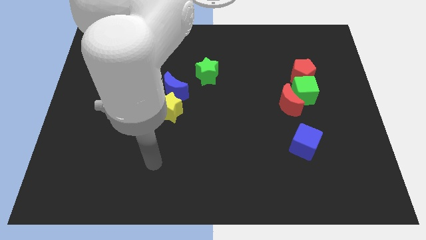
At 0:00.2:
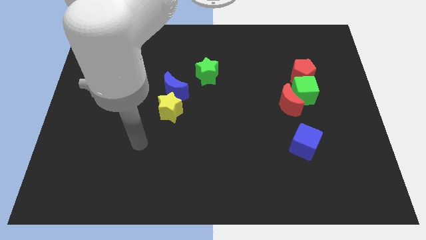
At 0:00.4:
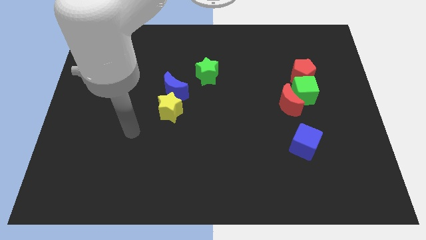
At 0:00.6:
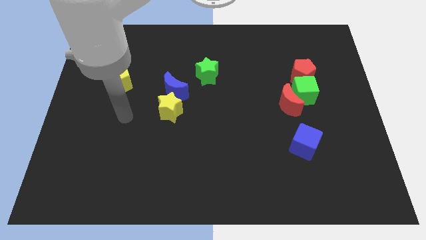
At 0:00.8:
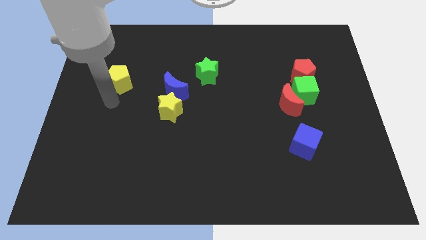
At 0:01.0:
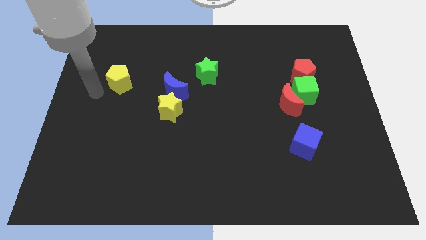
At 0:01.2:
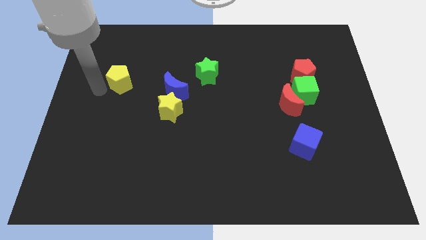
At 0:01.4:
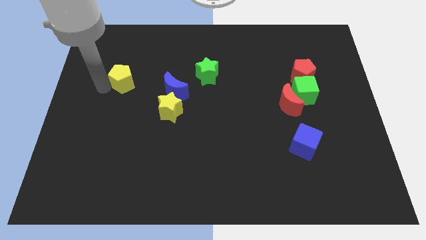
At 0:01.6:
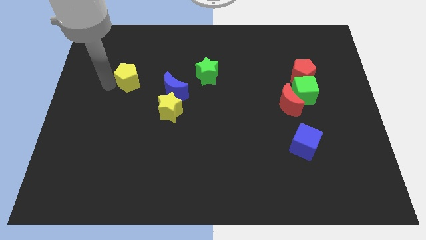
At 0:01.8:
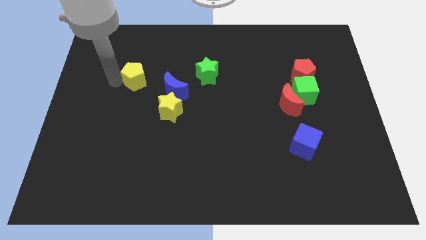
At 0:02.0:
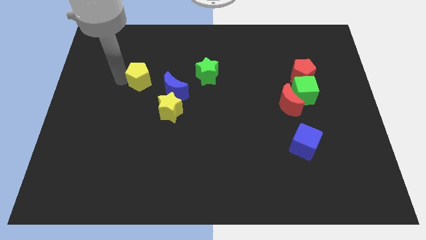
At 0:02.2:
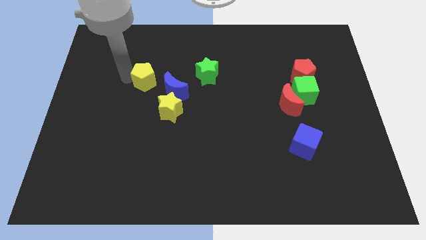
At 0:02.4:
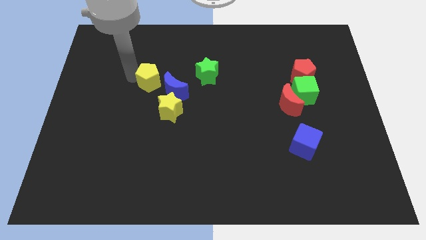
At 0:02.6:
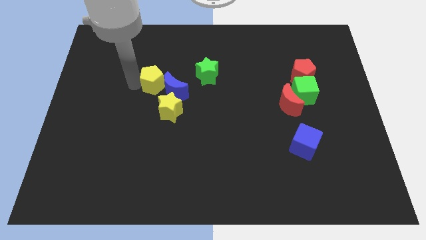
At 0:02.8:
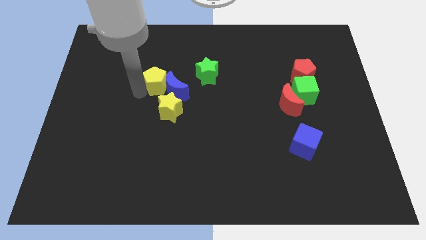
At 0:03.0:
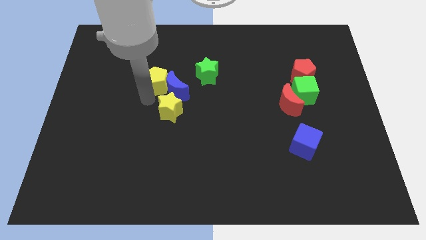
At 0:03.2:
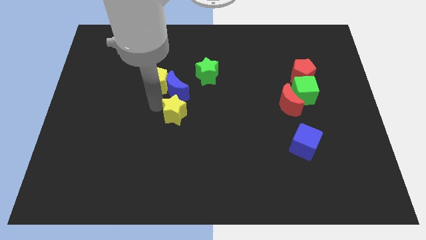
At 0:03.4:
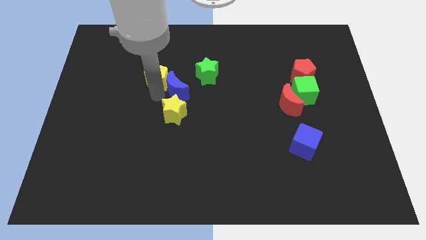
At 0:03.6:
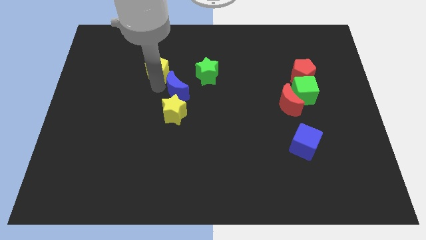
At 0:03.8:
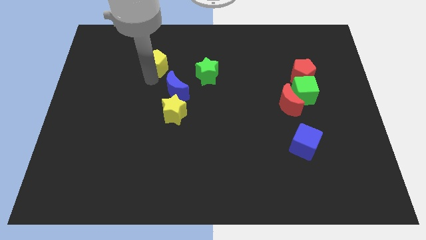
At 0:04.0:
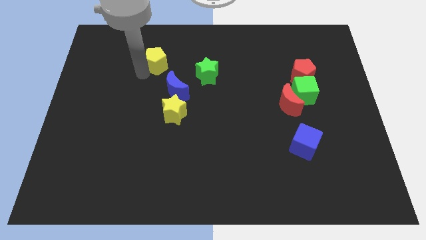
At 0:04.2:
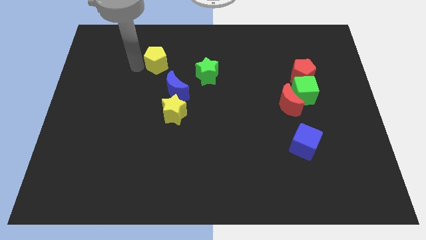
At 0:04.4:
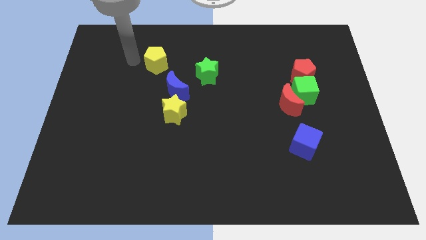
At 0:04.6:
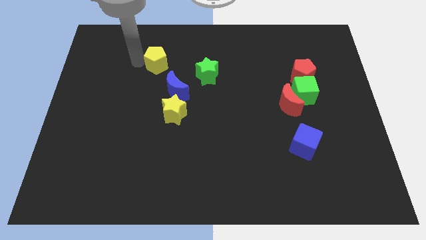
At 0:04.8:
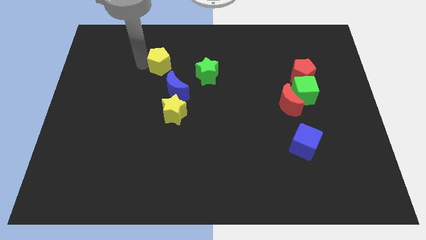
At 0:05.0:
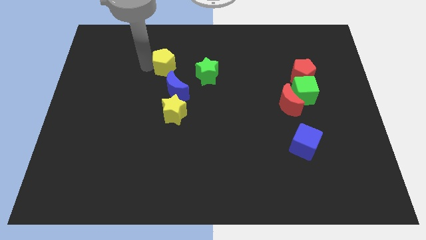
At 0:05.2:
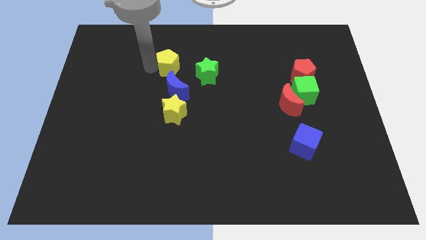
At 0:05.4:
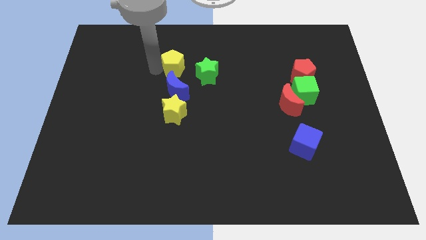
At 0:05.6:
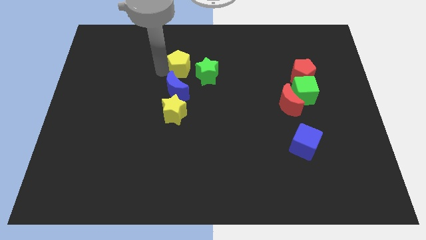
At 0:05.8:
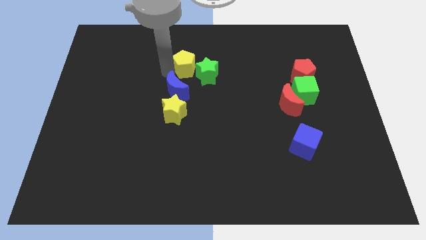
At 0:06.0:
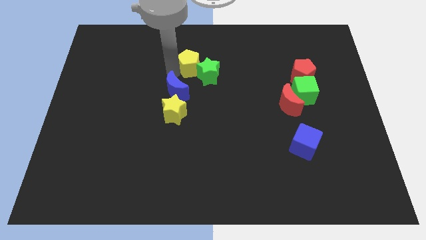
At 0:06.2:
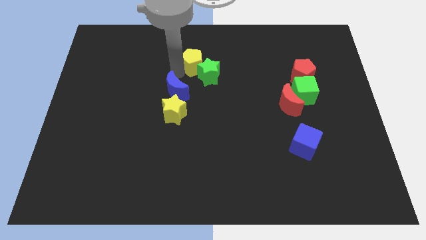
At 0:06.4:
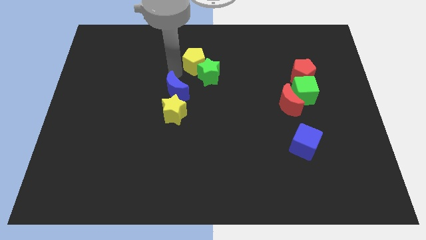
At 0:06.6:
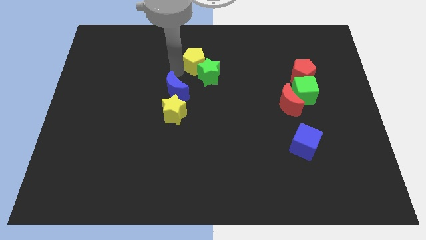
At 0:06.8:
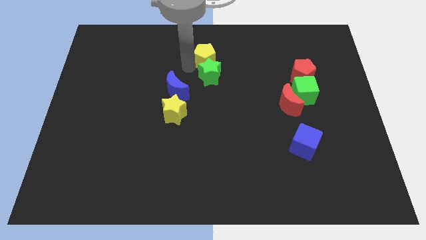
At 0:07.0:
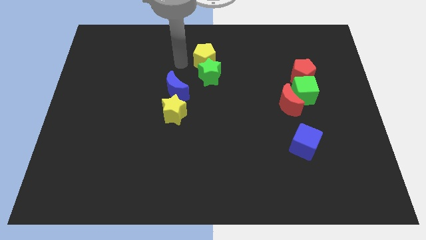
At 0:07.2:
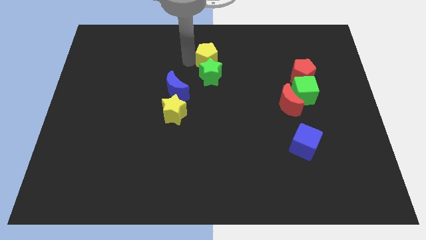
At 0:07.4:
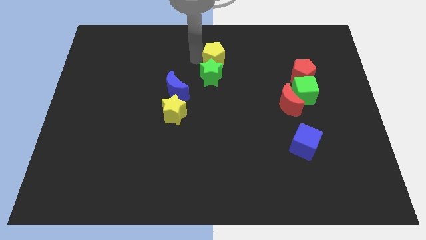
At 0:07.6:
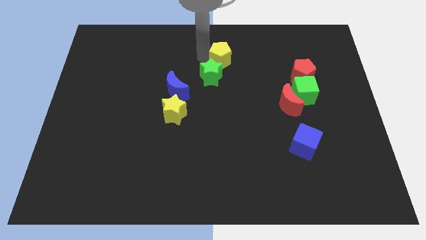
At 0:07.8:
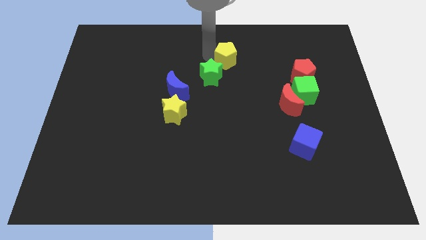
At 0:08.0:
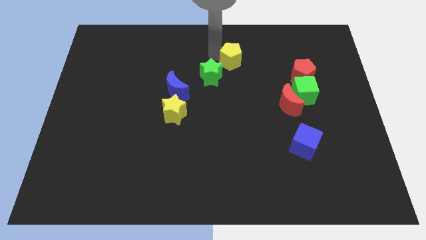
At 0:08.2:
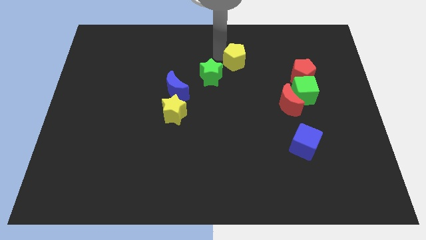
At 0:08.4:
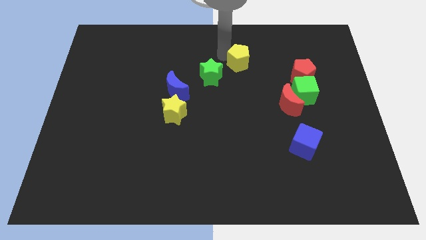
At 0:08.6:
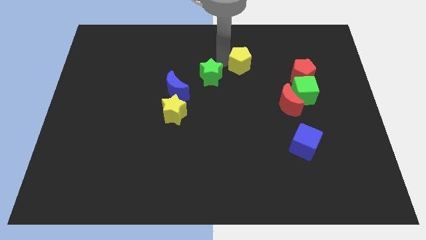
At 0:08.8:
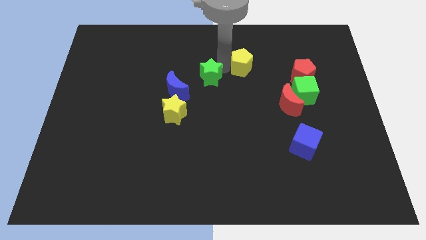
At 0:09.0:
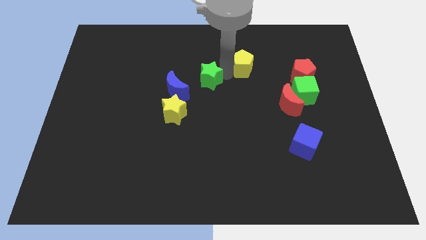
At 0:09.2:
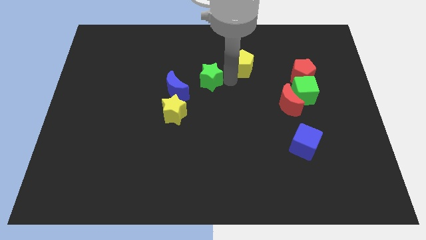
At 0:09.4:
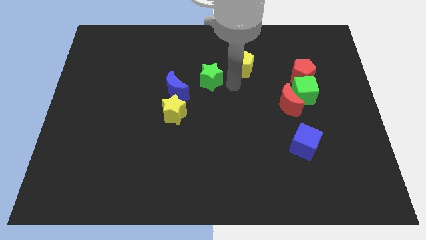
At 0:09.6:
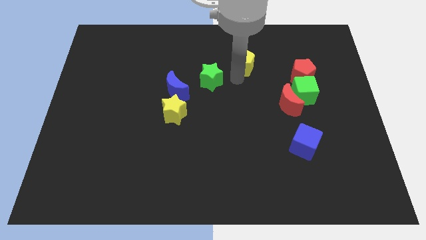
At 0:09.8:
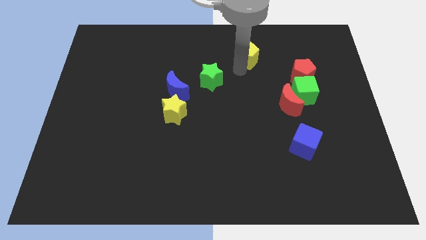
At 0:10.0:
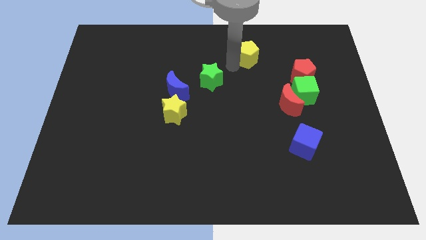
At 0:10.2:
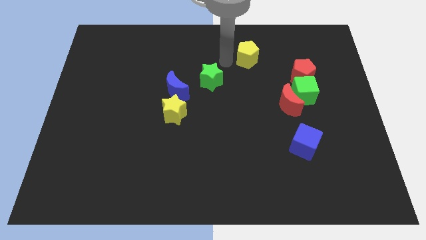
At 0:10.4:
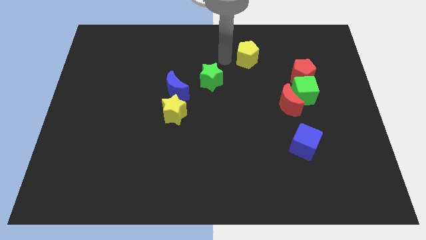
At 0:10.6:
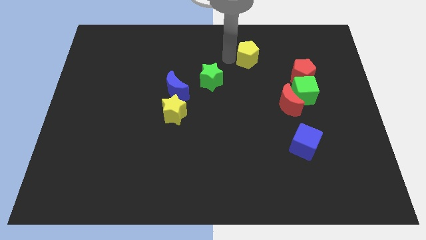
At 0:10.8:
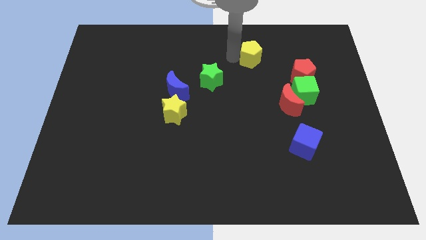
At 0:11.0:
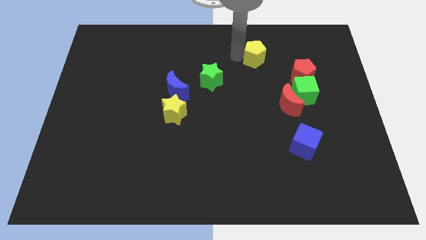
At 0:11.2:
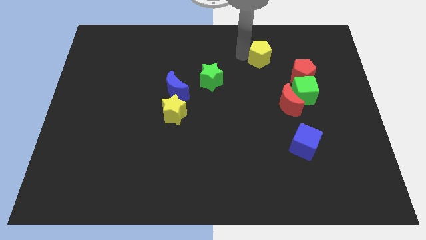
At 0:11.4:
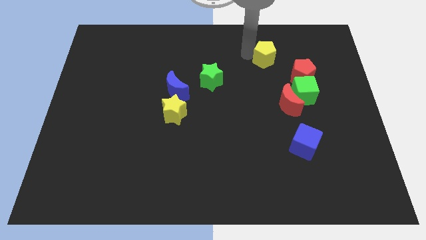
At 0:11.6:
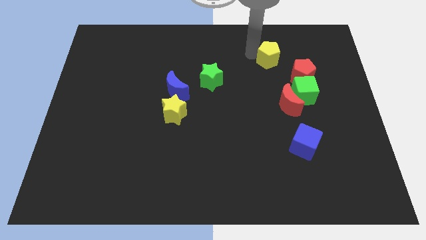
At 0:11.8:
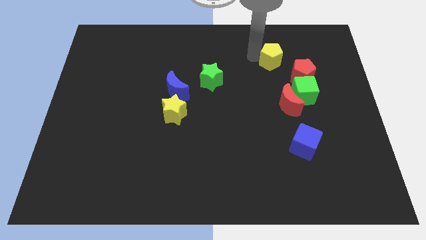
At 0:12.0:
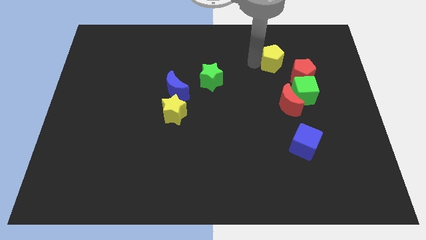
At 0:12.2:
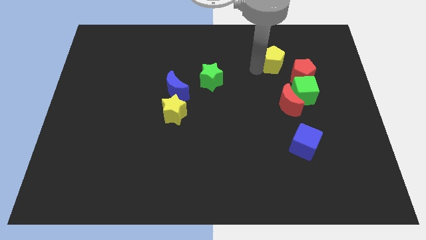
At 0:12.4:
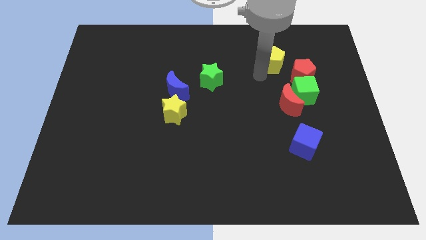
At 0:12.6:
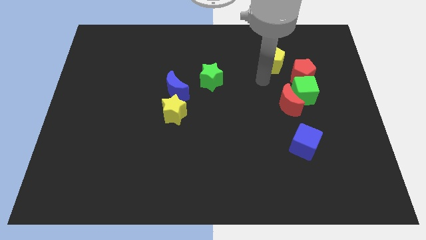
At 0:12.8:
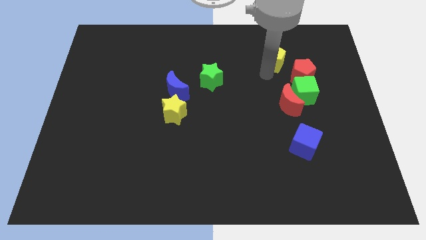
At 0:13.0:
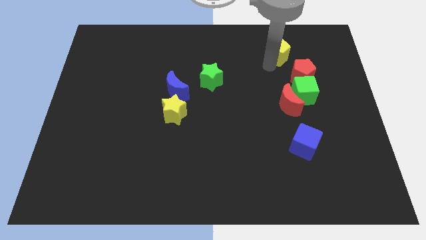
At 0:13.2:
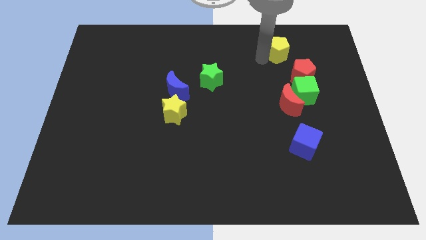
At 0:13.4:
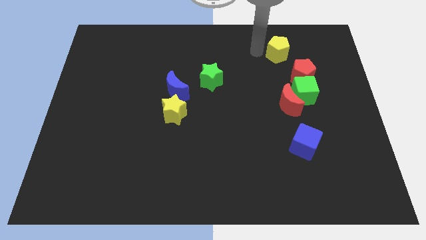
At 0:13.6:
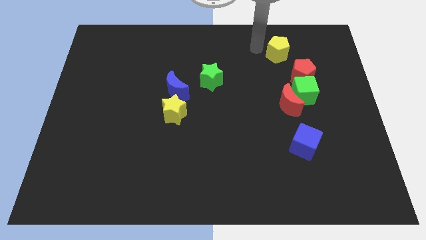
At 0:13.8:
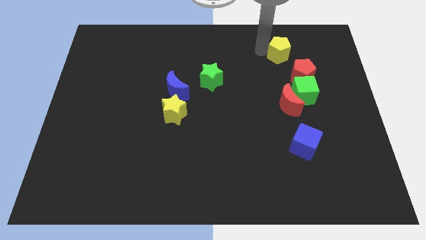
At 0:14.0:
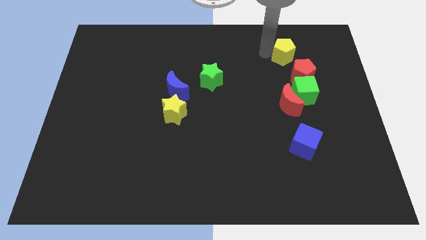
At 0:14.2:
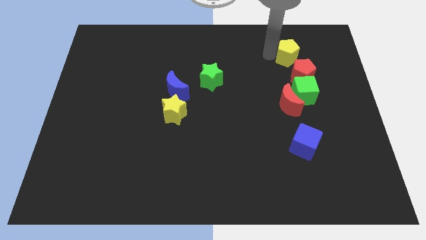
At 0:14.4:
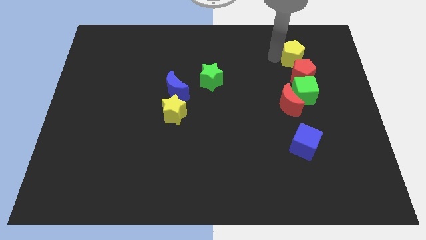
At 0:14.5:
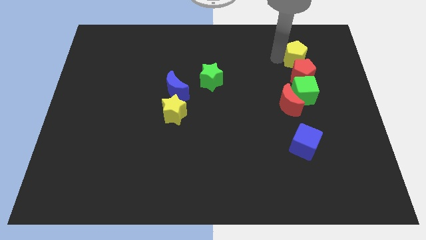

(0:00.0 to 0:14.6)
push the yellow pentagon to the top right side of the red pentagon
